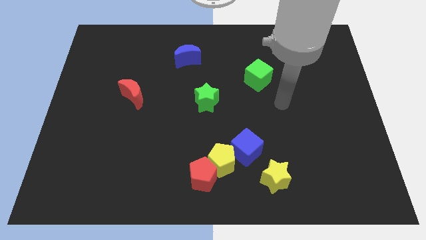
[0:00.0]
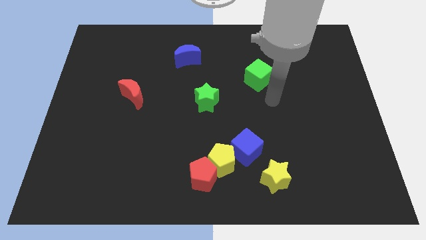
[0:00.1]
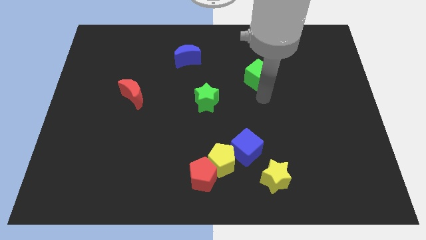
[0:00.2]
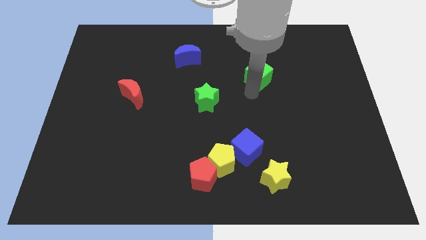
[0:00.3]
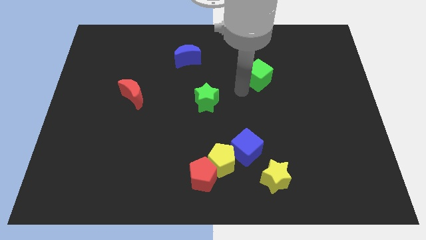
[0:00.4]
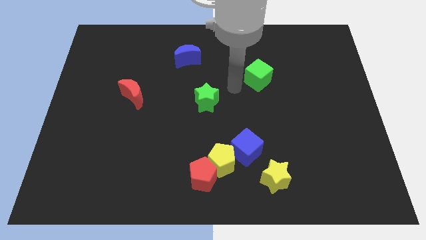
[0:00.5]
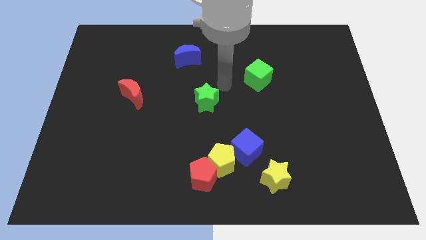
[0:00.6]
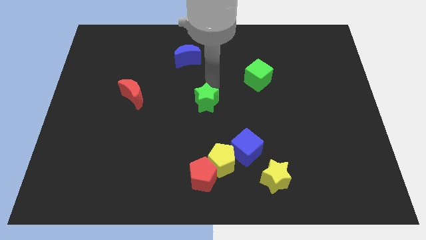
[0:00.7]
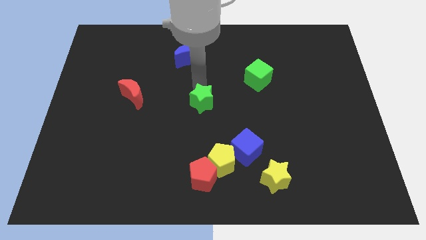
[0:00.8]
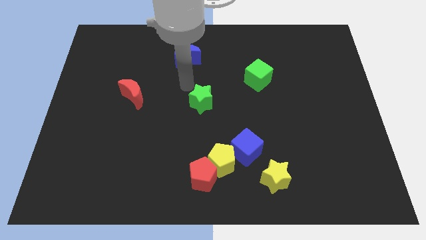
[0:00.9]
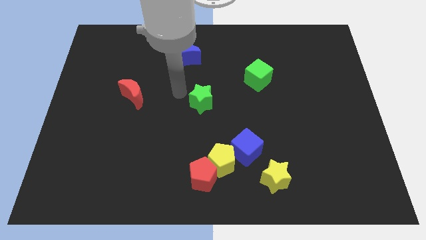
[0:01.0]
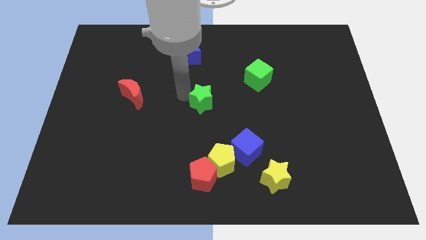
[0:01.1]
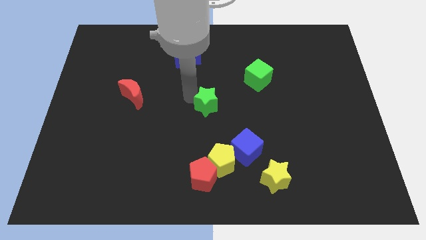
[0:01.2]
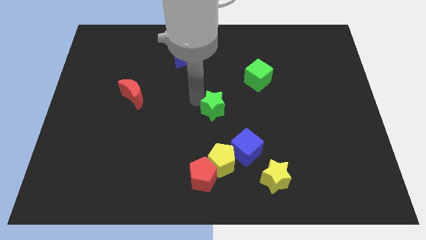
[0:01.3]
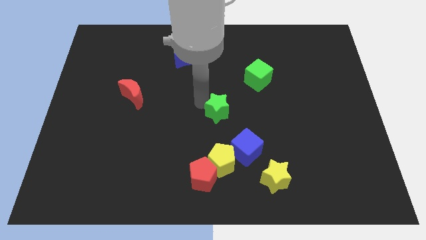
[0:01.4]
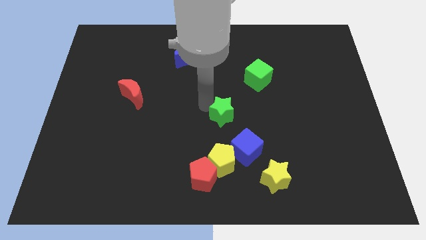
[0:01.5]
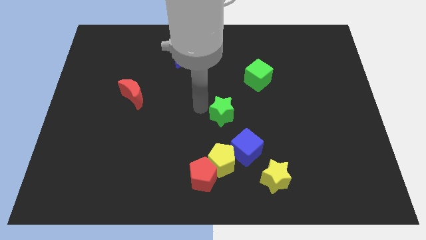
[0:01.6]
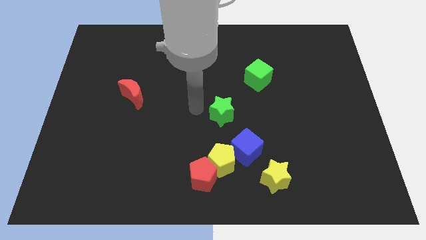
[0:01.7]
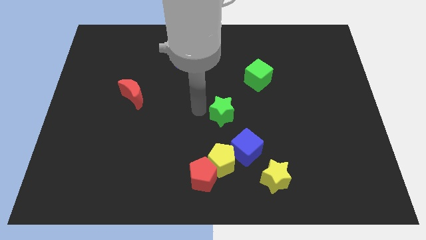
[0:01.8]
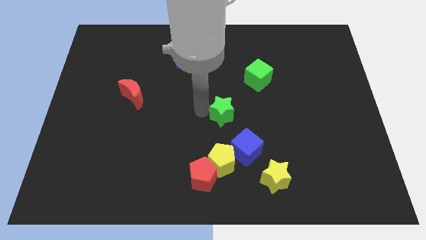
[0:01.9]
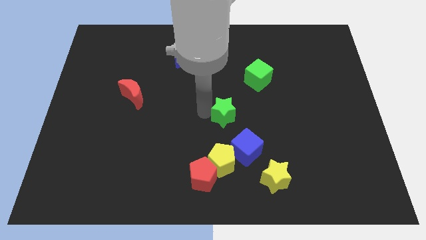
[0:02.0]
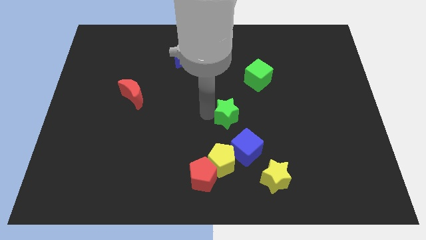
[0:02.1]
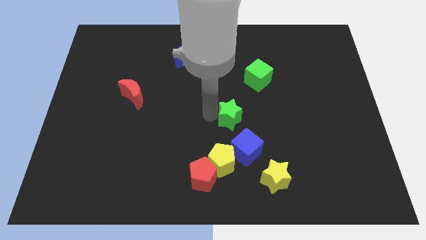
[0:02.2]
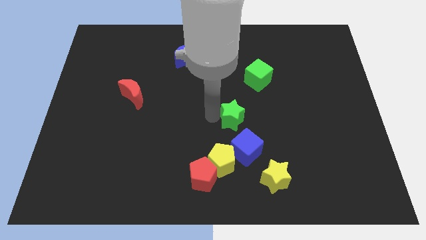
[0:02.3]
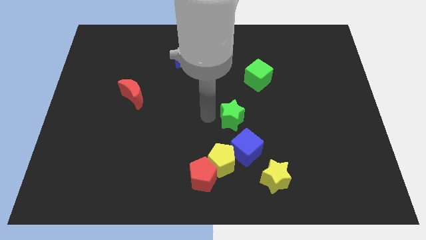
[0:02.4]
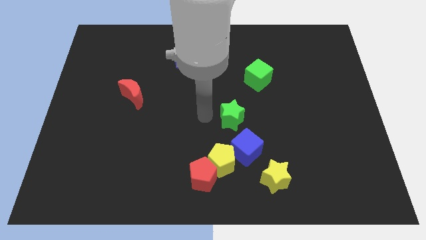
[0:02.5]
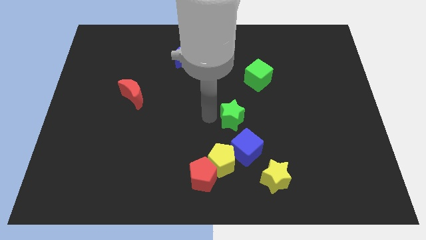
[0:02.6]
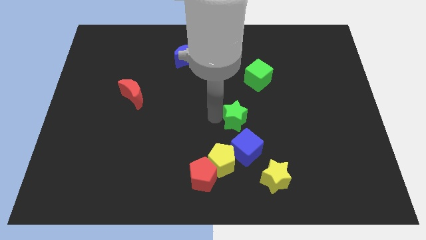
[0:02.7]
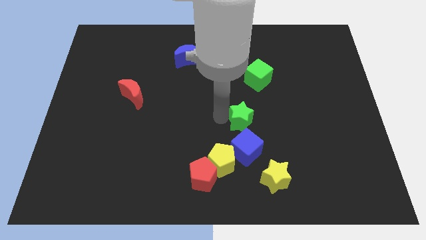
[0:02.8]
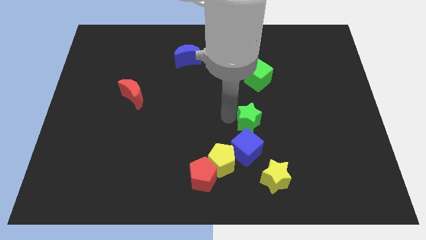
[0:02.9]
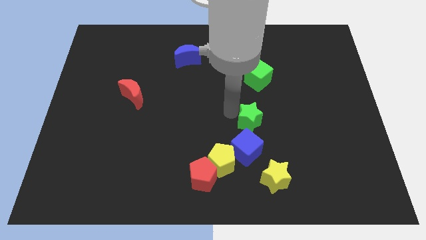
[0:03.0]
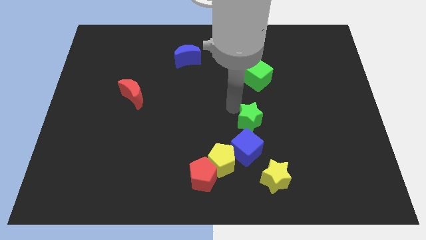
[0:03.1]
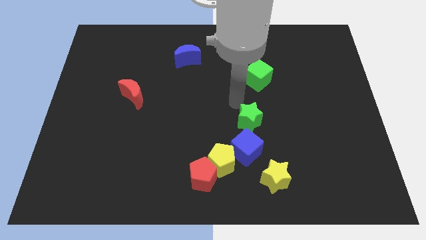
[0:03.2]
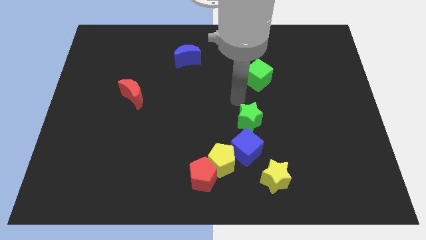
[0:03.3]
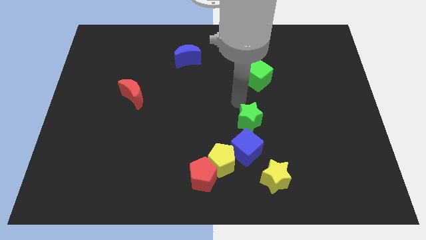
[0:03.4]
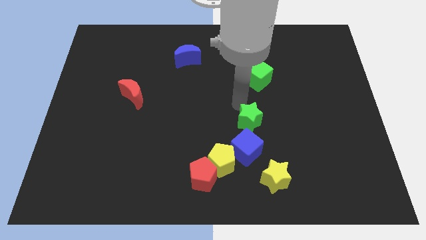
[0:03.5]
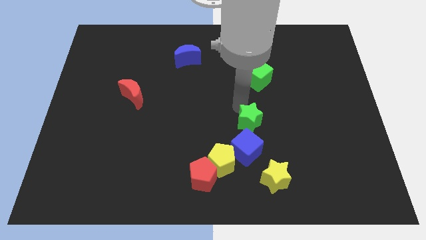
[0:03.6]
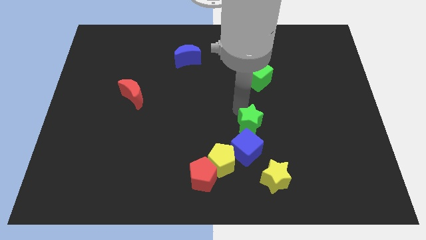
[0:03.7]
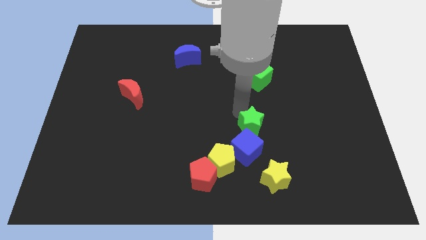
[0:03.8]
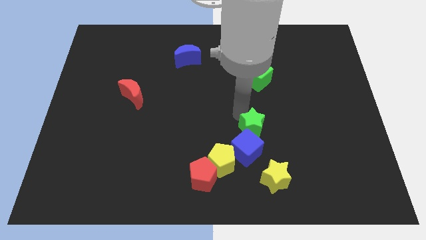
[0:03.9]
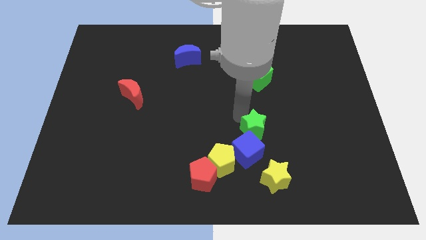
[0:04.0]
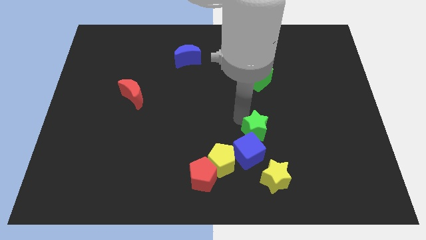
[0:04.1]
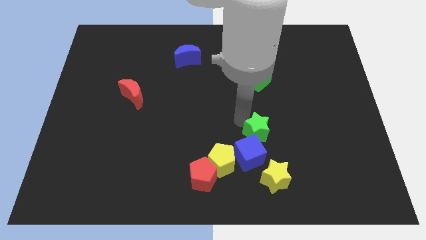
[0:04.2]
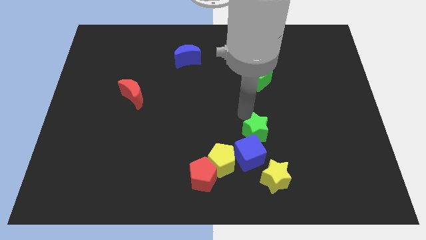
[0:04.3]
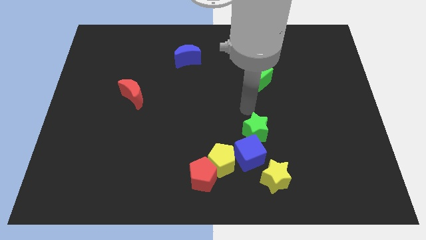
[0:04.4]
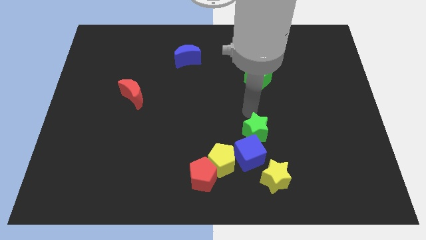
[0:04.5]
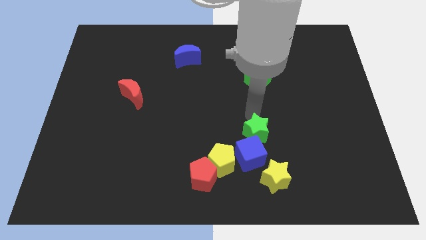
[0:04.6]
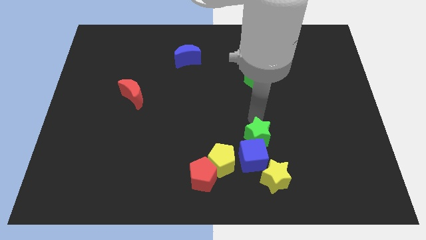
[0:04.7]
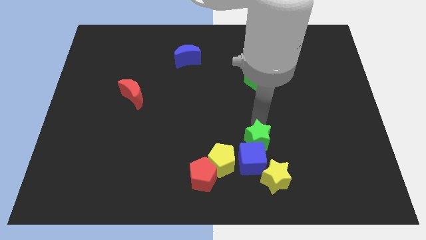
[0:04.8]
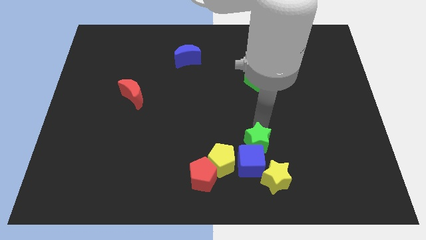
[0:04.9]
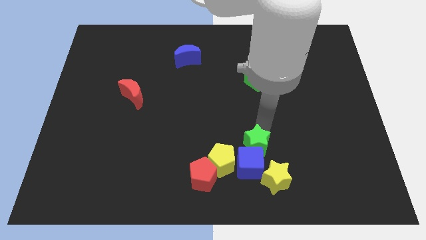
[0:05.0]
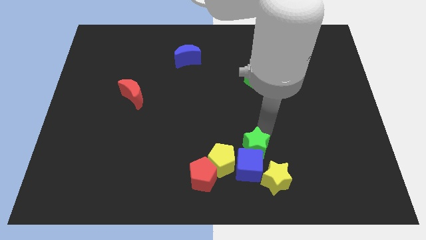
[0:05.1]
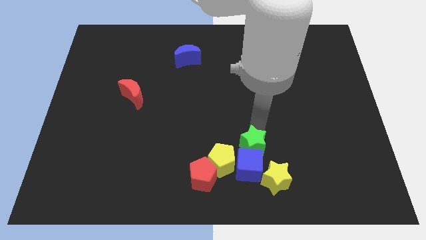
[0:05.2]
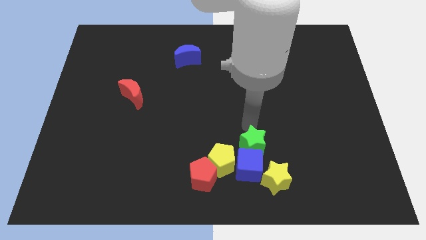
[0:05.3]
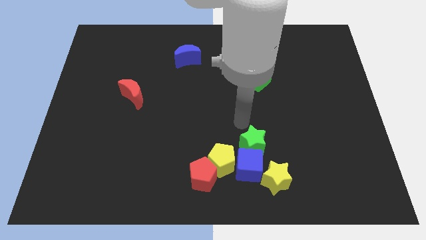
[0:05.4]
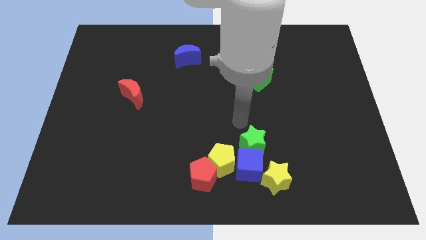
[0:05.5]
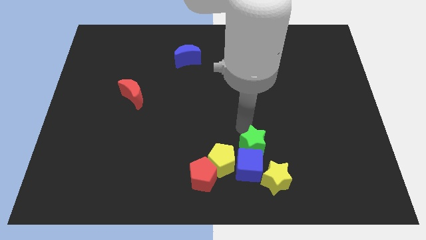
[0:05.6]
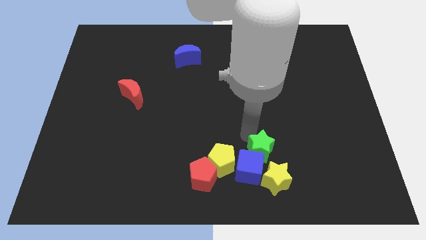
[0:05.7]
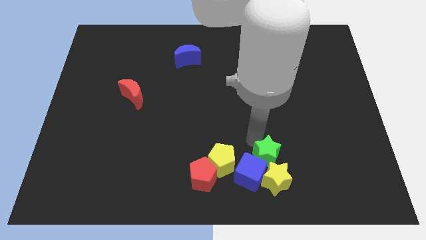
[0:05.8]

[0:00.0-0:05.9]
move the green star close to the yellow star

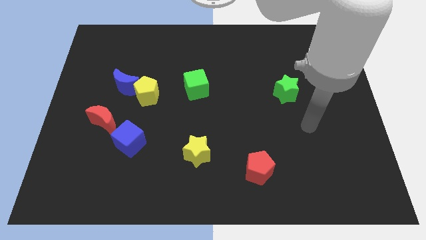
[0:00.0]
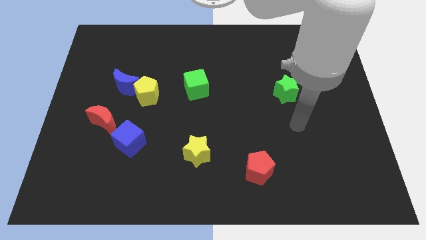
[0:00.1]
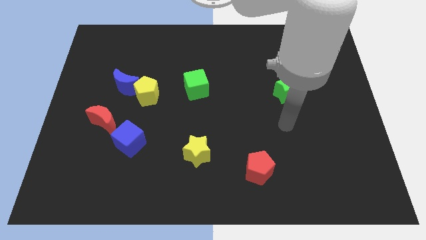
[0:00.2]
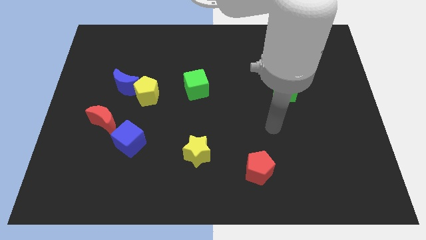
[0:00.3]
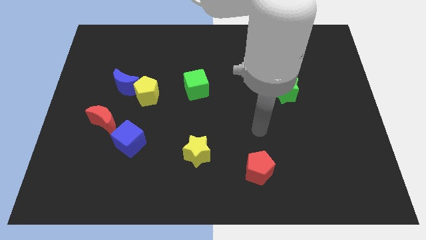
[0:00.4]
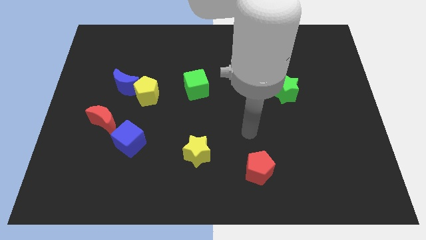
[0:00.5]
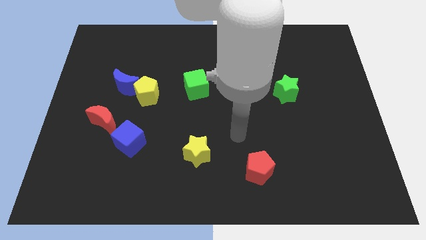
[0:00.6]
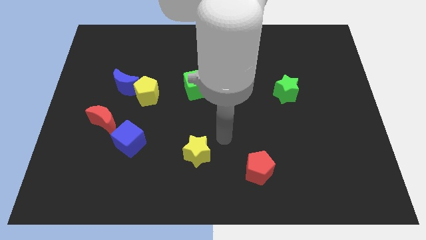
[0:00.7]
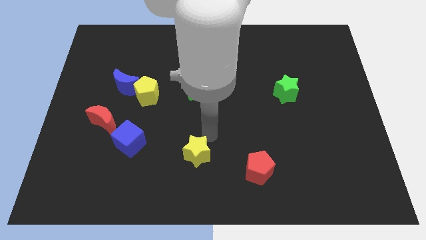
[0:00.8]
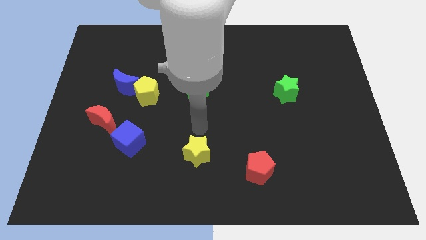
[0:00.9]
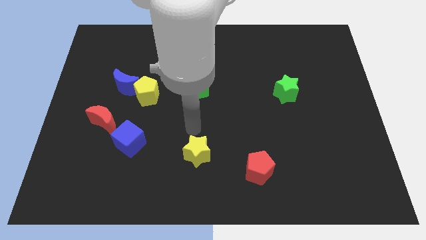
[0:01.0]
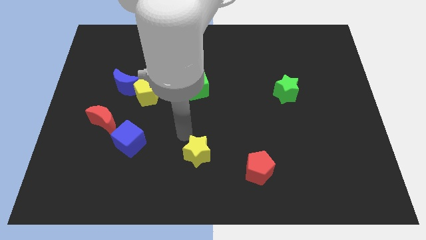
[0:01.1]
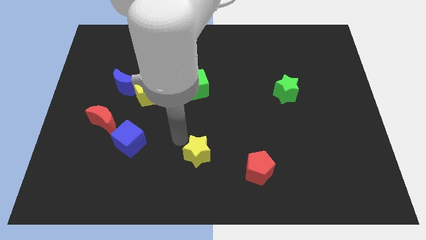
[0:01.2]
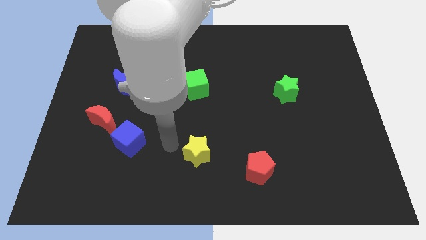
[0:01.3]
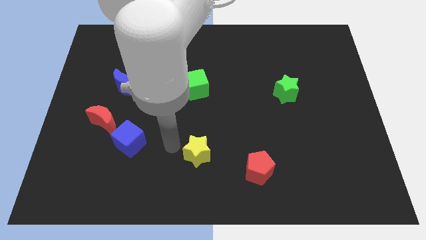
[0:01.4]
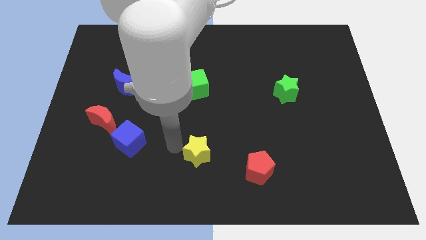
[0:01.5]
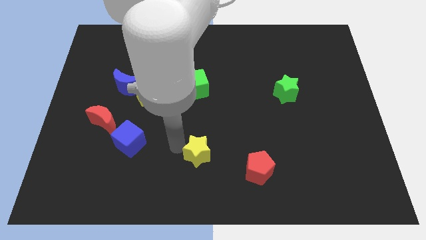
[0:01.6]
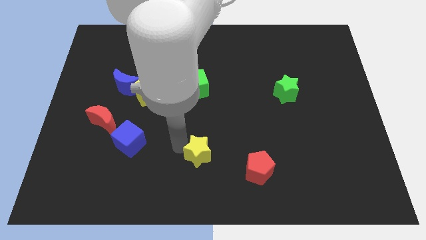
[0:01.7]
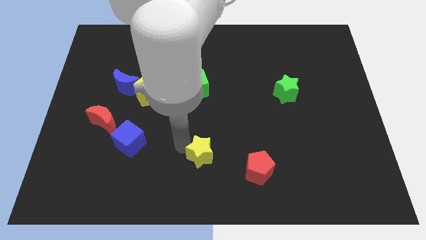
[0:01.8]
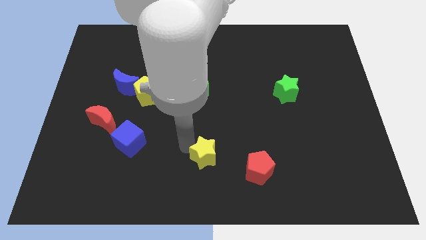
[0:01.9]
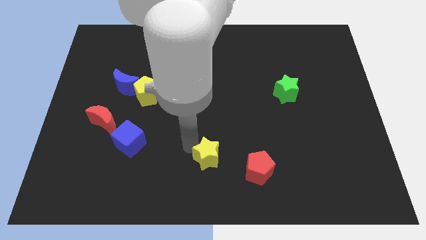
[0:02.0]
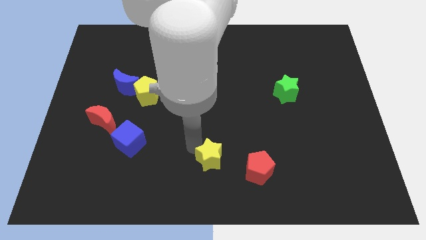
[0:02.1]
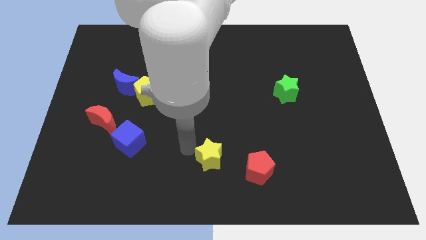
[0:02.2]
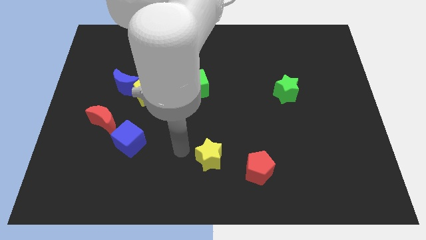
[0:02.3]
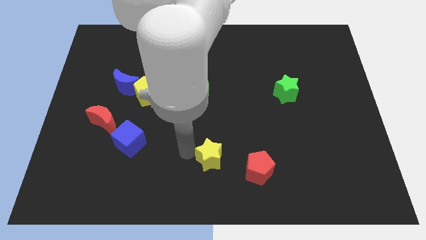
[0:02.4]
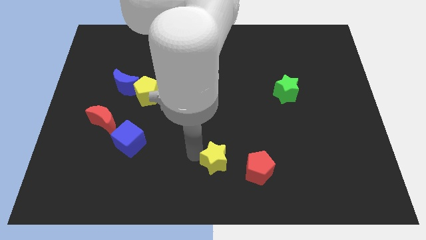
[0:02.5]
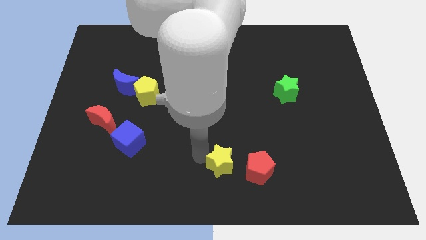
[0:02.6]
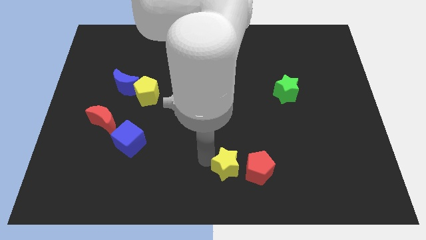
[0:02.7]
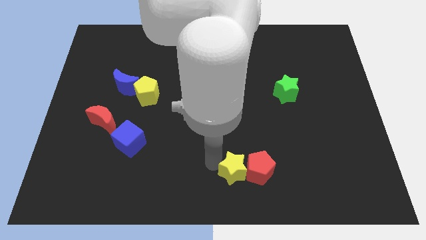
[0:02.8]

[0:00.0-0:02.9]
push the yellow star to the red pentagon
